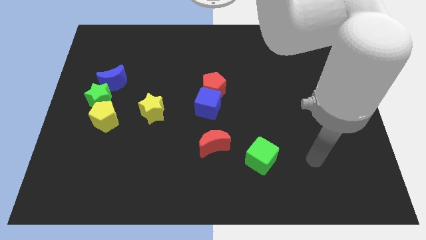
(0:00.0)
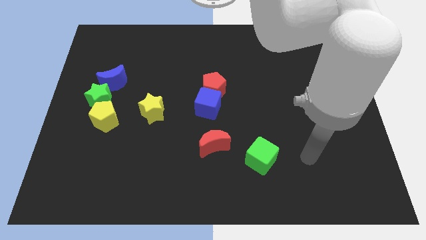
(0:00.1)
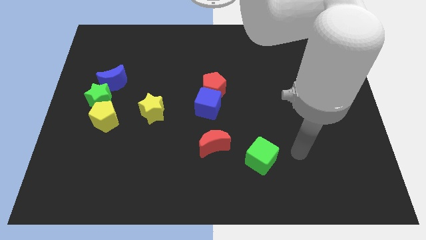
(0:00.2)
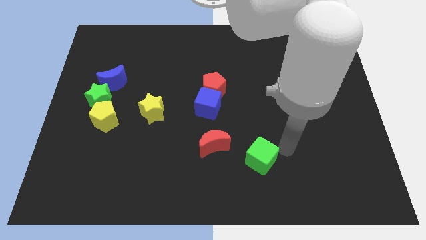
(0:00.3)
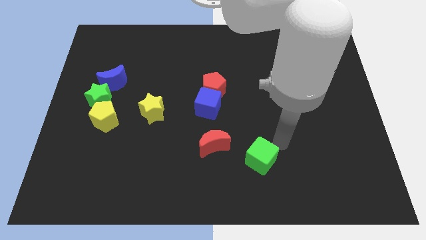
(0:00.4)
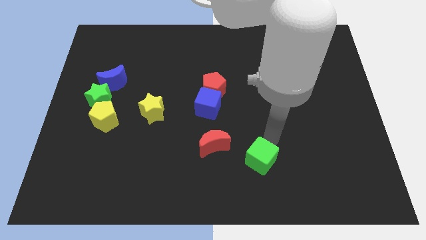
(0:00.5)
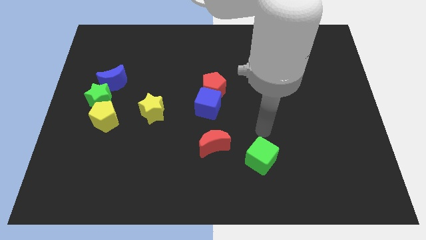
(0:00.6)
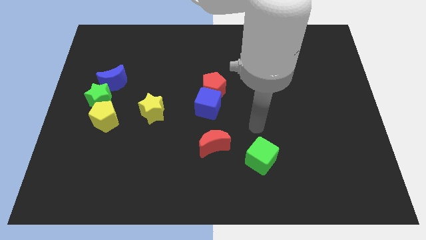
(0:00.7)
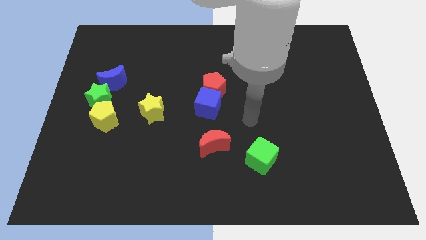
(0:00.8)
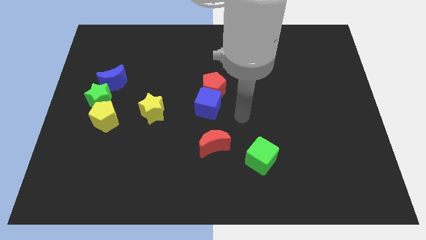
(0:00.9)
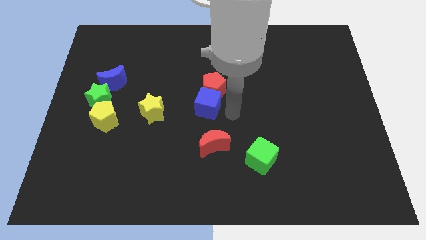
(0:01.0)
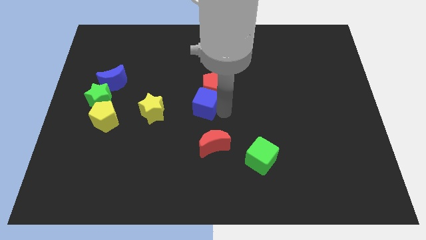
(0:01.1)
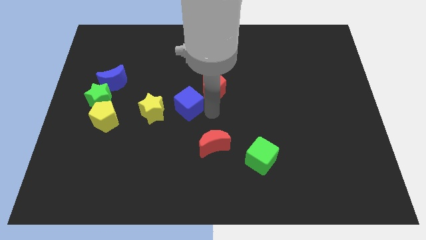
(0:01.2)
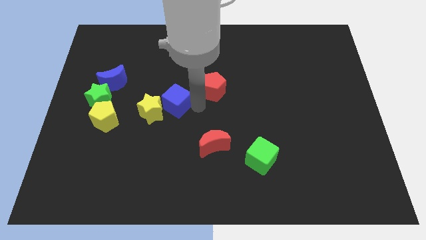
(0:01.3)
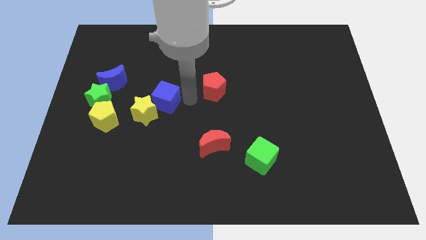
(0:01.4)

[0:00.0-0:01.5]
separate the red pentagon from the blue cube

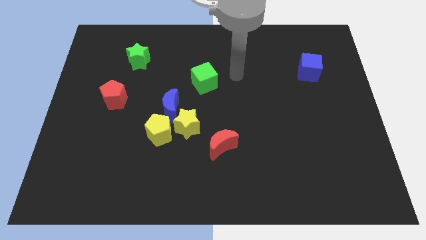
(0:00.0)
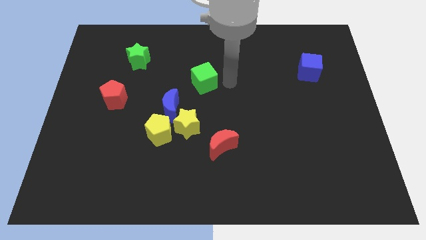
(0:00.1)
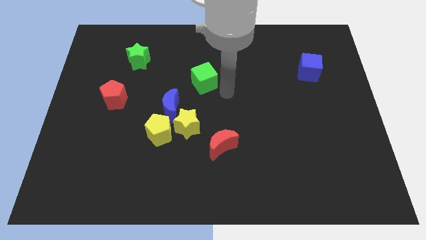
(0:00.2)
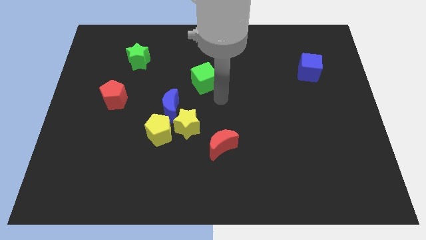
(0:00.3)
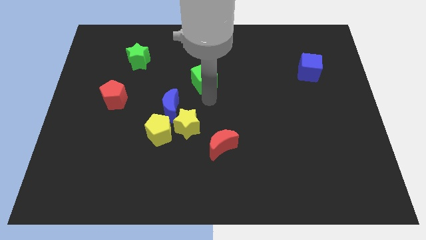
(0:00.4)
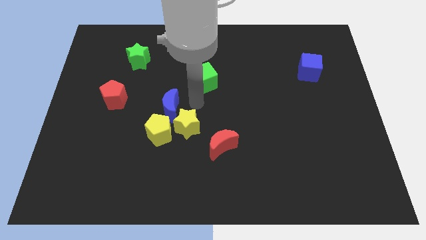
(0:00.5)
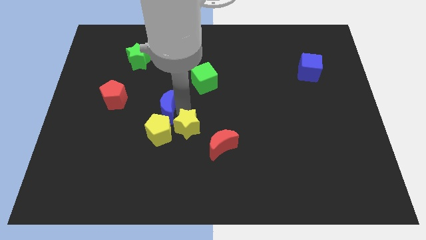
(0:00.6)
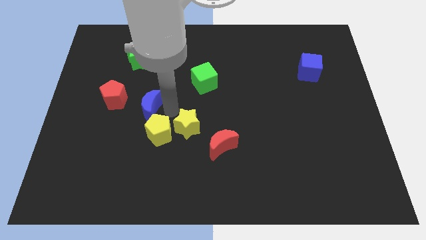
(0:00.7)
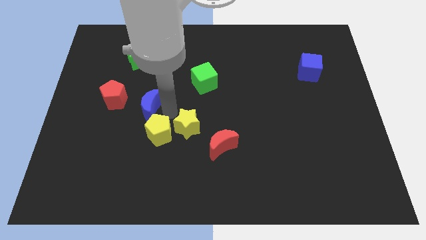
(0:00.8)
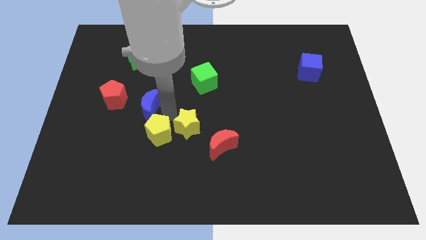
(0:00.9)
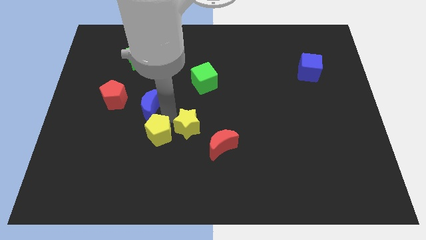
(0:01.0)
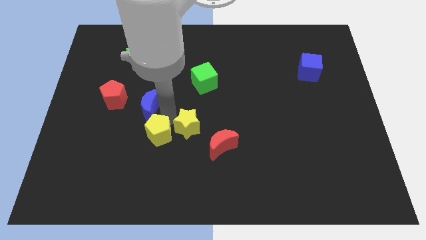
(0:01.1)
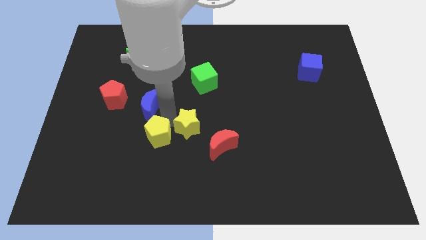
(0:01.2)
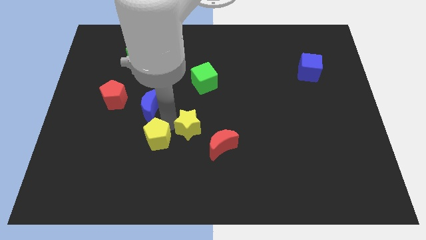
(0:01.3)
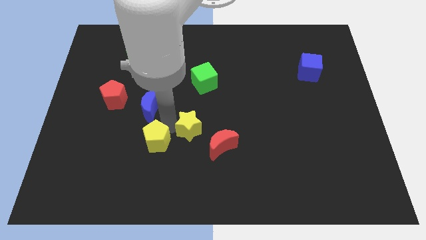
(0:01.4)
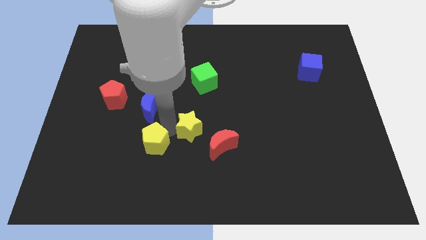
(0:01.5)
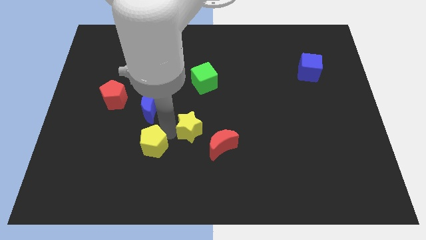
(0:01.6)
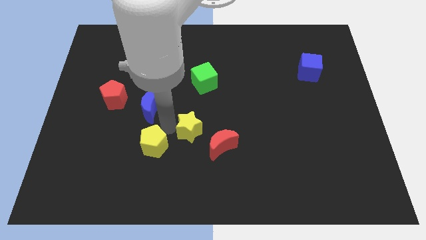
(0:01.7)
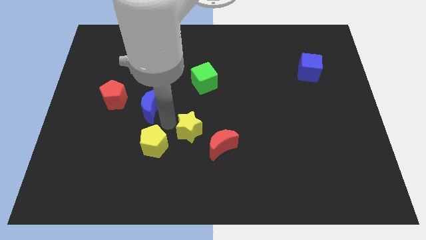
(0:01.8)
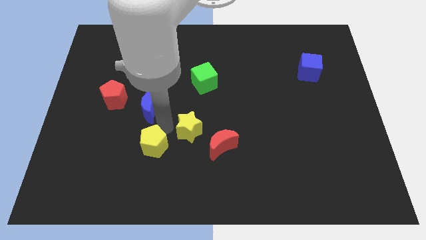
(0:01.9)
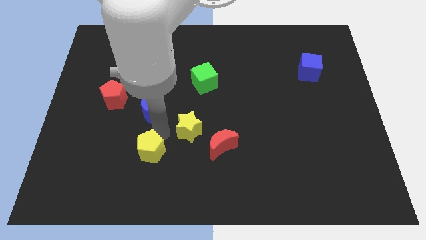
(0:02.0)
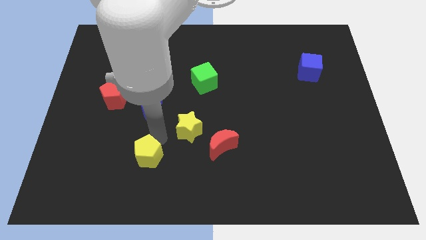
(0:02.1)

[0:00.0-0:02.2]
separate the yellow pentagon from the yellow star and blue moon

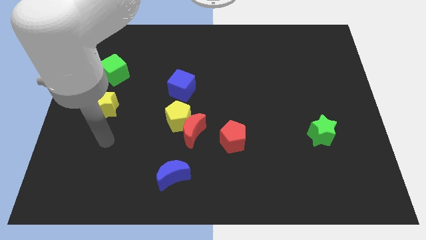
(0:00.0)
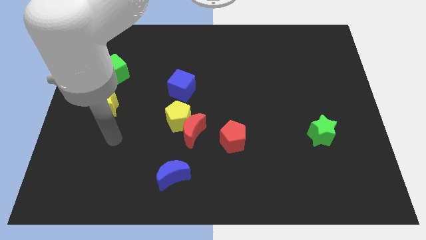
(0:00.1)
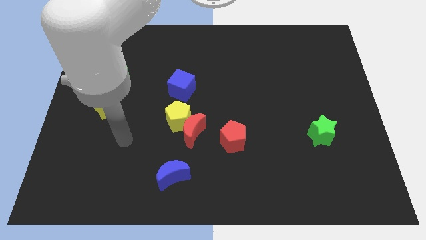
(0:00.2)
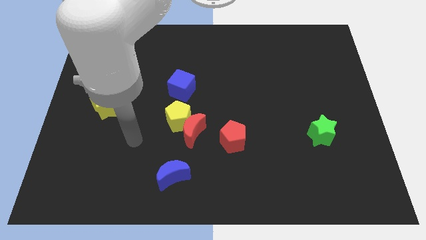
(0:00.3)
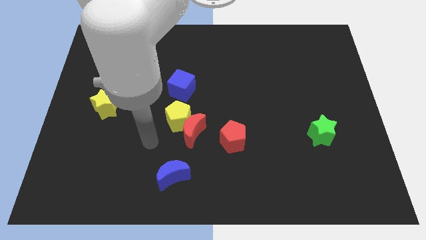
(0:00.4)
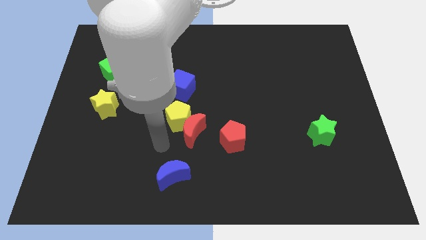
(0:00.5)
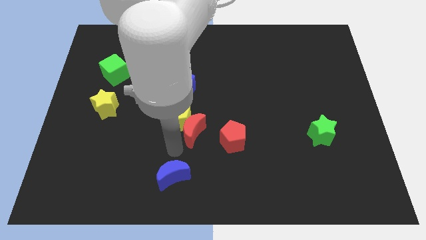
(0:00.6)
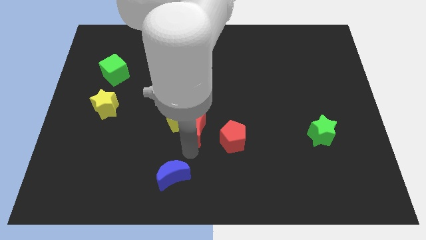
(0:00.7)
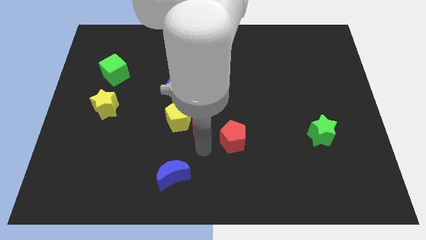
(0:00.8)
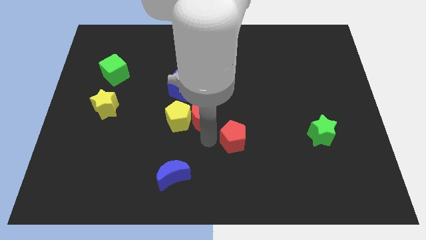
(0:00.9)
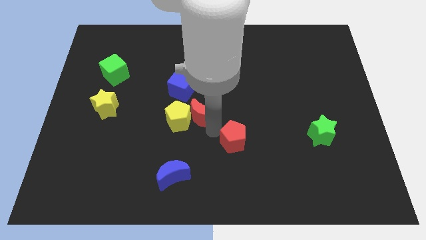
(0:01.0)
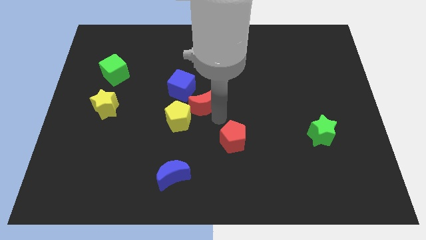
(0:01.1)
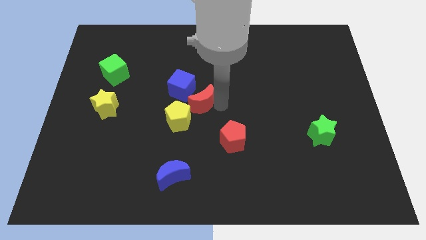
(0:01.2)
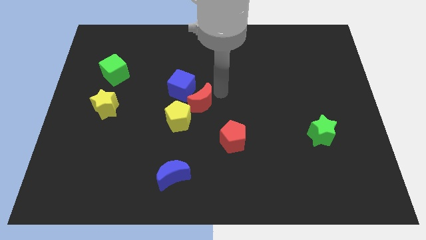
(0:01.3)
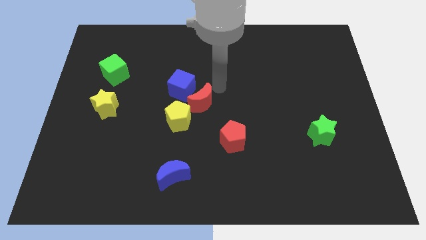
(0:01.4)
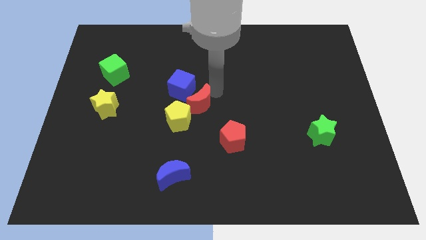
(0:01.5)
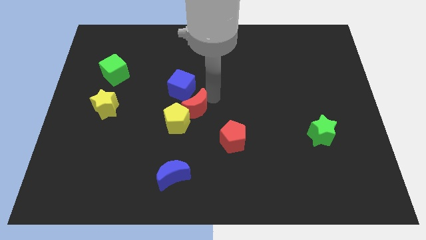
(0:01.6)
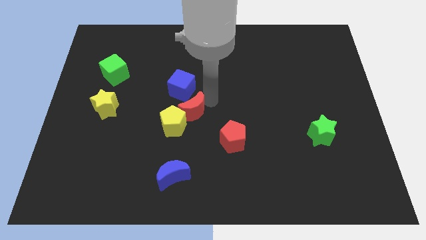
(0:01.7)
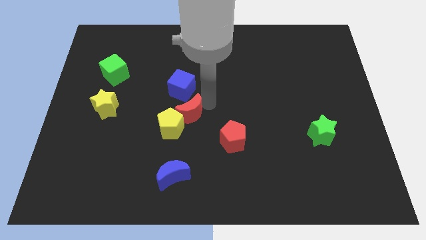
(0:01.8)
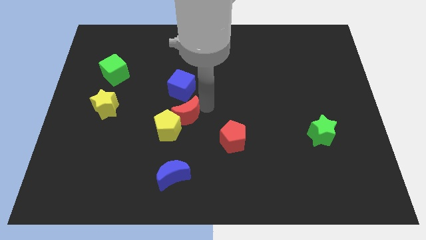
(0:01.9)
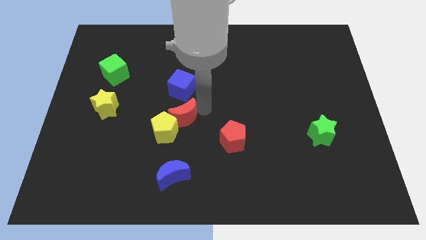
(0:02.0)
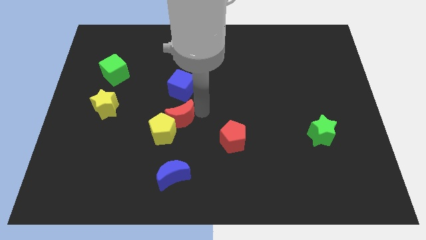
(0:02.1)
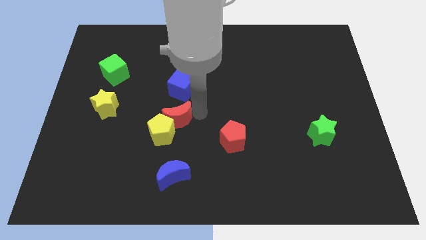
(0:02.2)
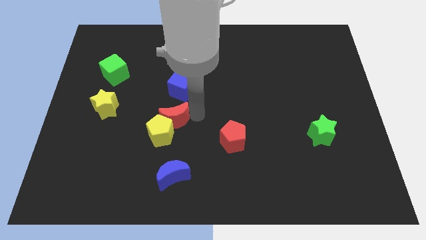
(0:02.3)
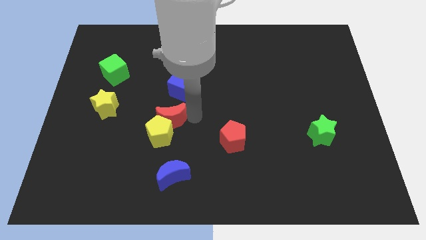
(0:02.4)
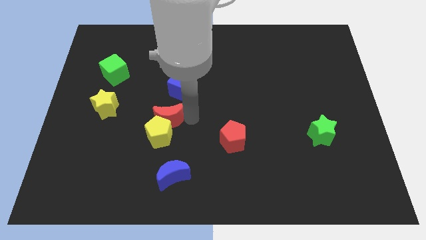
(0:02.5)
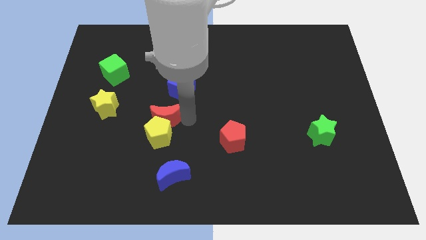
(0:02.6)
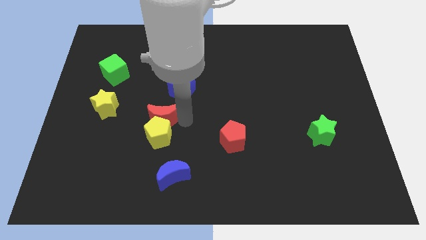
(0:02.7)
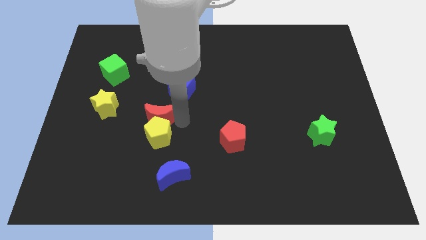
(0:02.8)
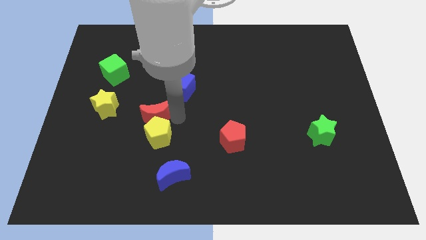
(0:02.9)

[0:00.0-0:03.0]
move the red moon away from the yellow pentagon and red pentagon

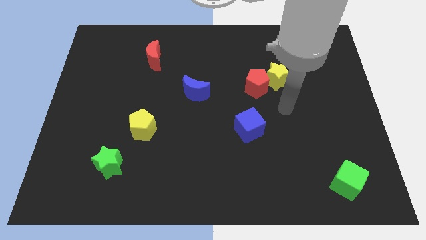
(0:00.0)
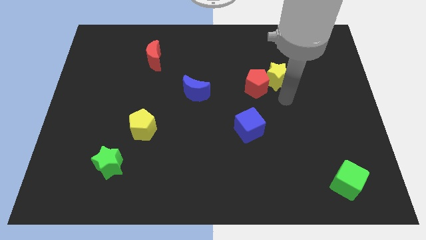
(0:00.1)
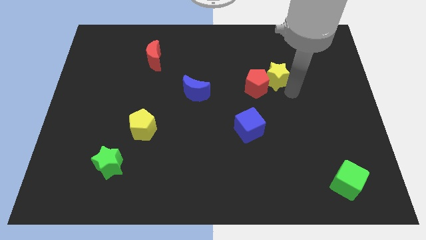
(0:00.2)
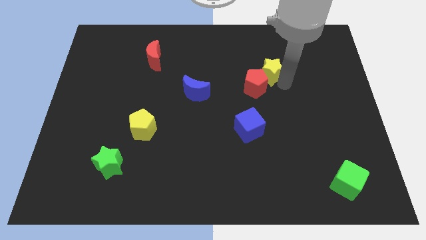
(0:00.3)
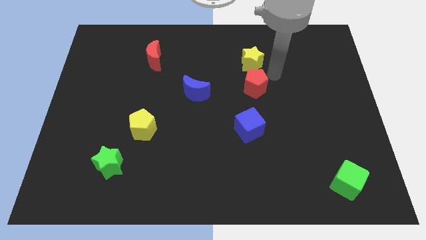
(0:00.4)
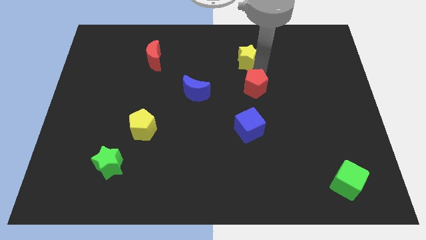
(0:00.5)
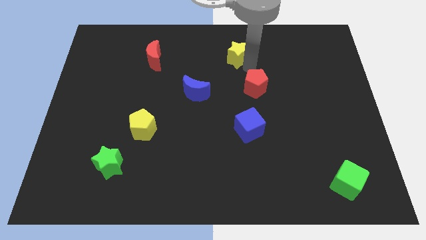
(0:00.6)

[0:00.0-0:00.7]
separate the red pentagon from the yellow star

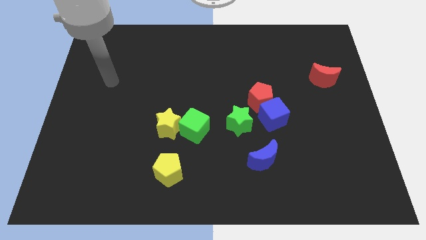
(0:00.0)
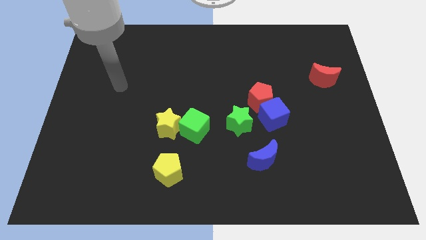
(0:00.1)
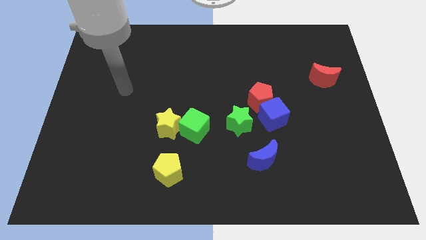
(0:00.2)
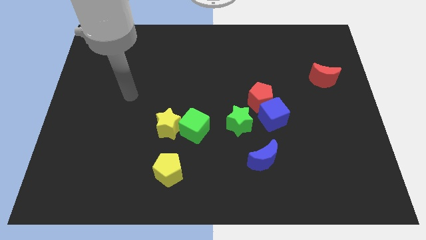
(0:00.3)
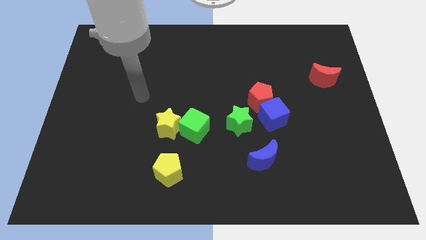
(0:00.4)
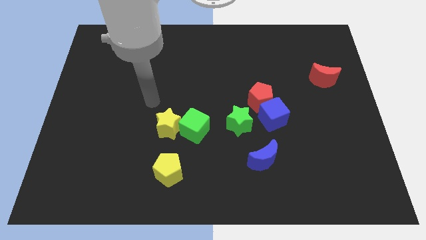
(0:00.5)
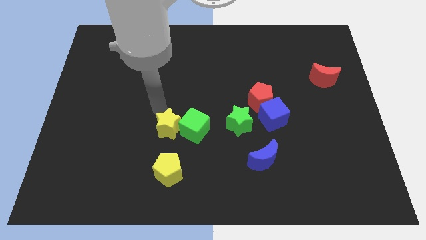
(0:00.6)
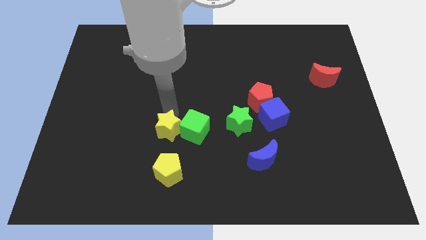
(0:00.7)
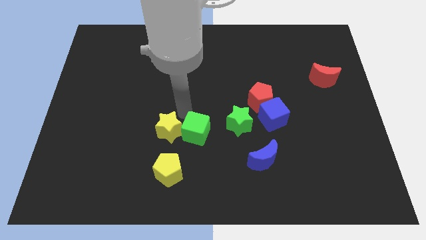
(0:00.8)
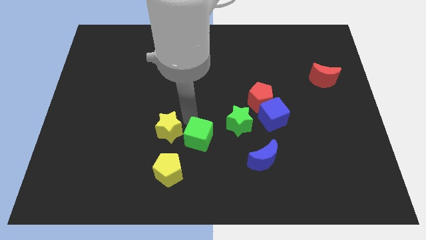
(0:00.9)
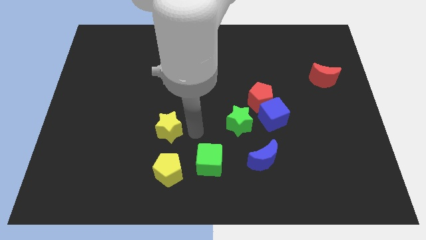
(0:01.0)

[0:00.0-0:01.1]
pull the yellow star apart from the green cube

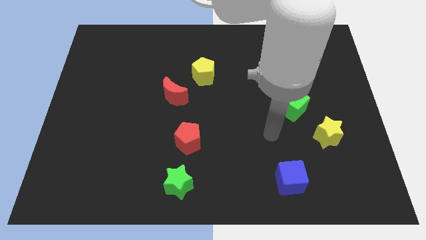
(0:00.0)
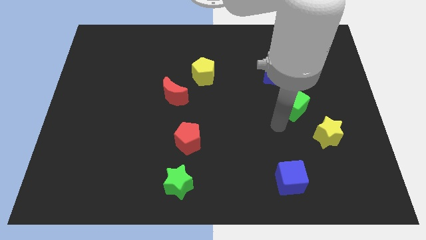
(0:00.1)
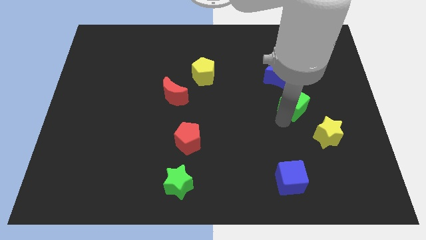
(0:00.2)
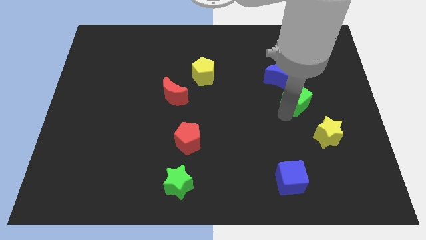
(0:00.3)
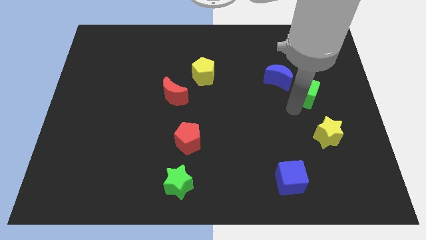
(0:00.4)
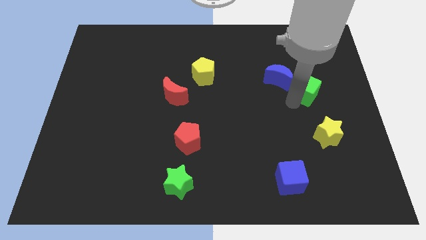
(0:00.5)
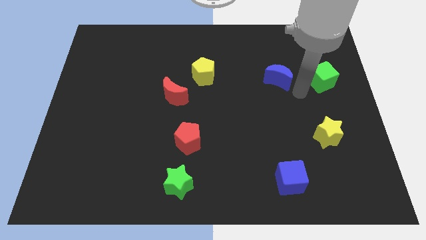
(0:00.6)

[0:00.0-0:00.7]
pull the blue moon apart from the green cube
